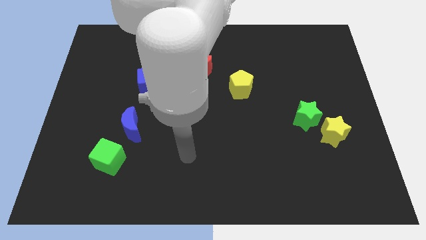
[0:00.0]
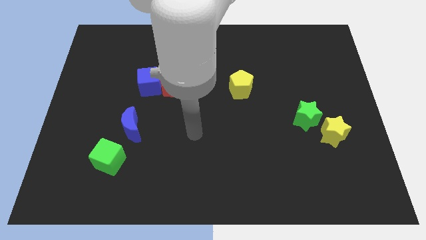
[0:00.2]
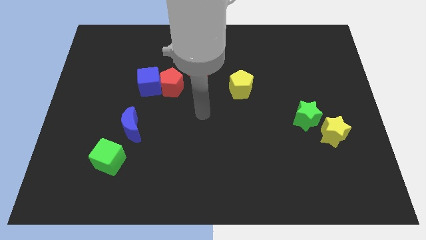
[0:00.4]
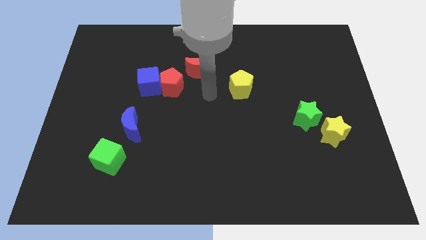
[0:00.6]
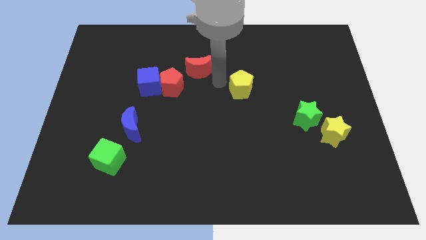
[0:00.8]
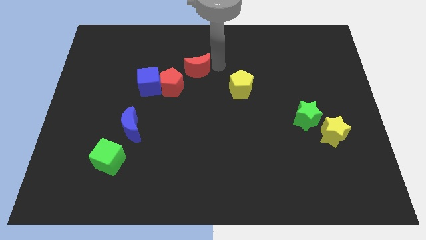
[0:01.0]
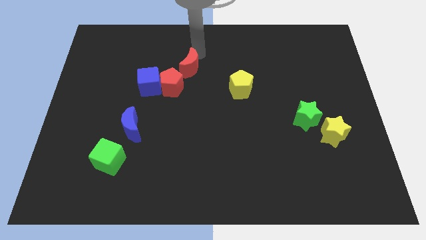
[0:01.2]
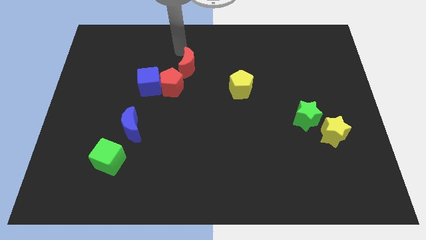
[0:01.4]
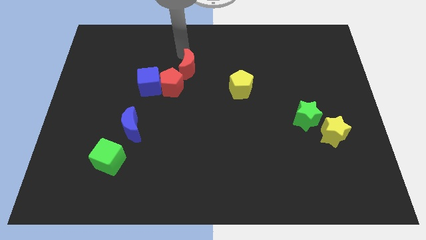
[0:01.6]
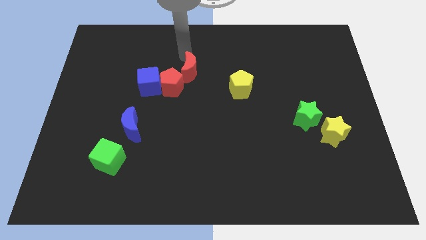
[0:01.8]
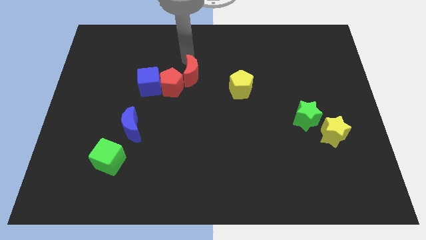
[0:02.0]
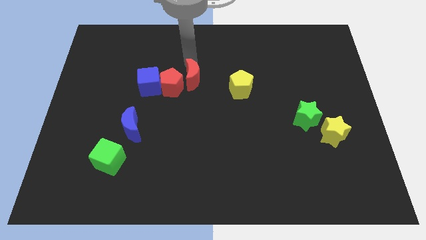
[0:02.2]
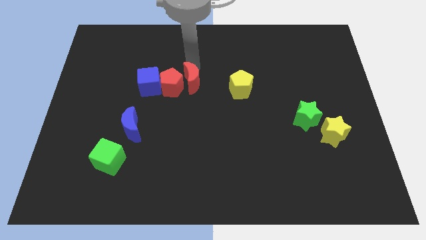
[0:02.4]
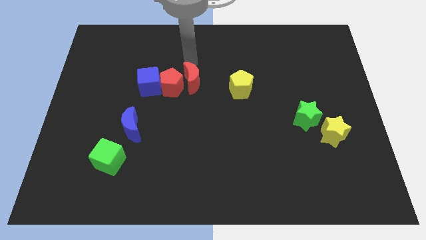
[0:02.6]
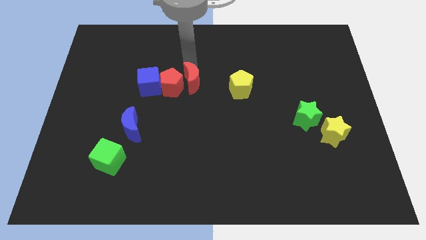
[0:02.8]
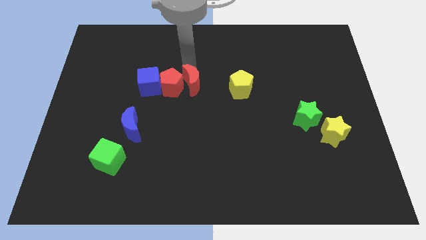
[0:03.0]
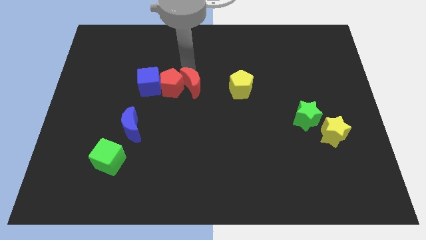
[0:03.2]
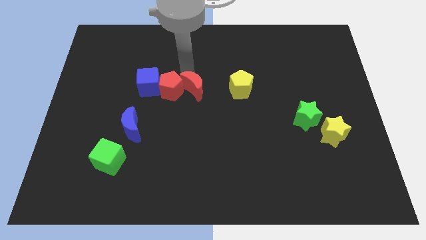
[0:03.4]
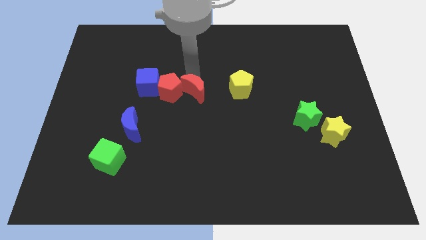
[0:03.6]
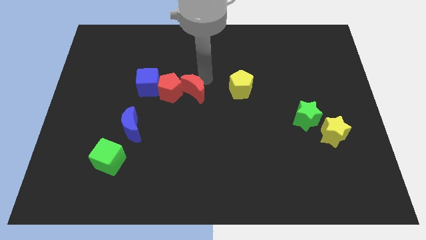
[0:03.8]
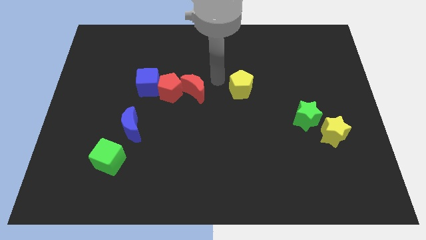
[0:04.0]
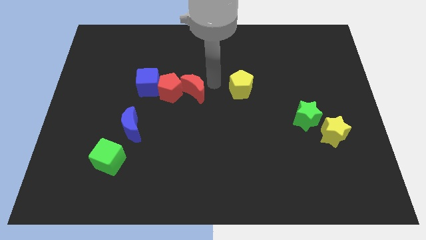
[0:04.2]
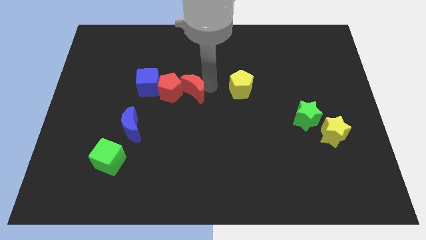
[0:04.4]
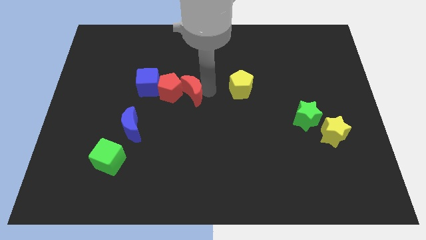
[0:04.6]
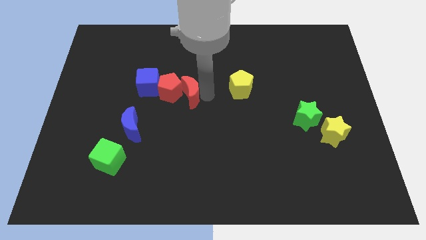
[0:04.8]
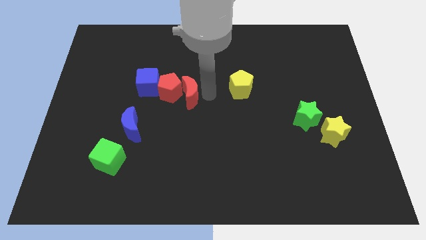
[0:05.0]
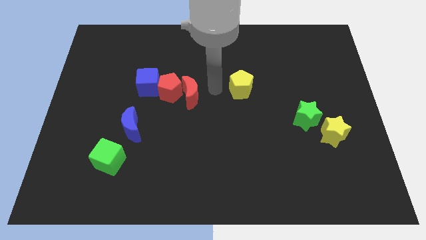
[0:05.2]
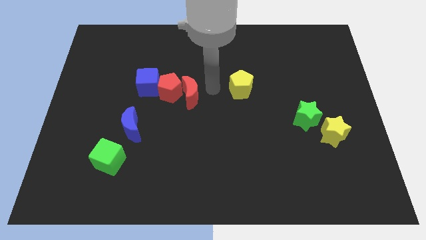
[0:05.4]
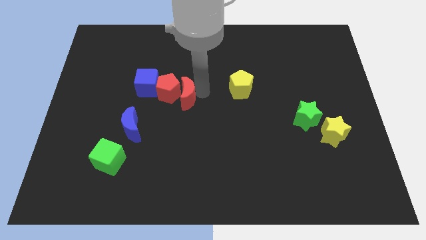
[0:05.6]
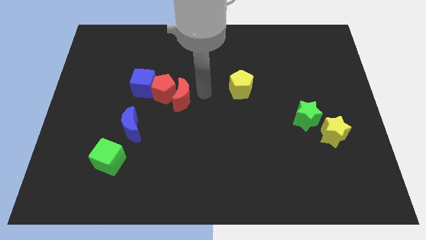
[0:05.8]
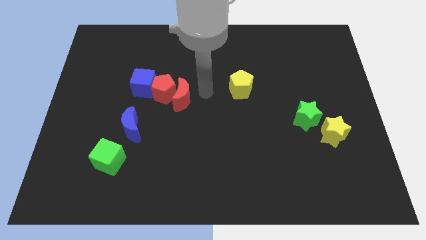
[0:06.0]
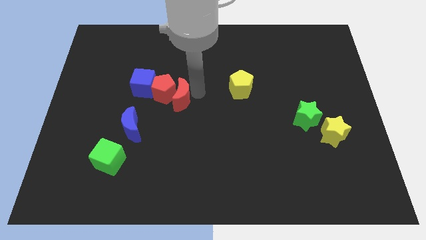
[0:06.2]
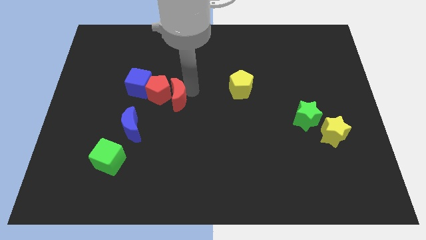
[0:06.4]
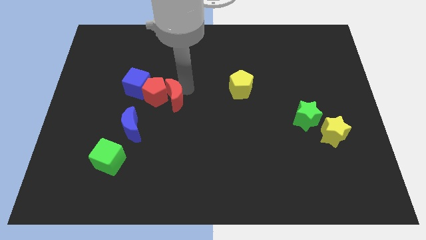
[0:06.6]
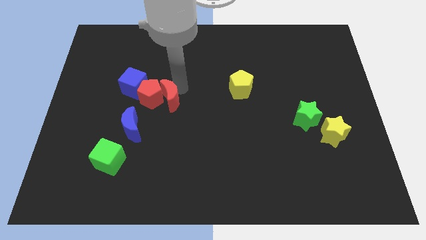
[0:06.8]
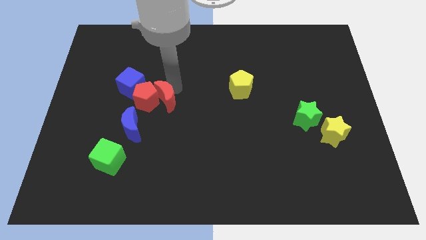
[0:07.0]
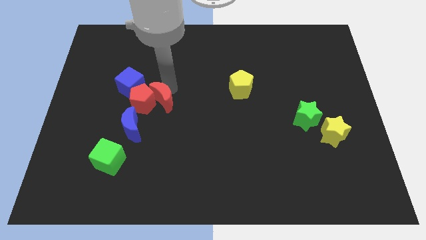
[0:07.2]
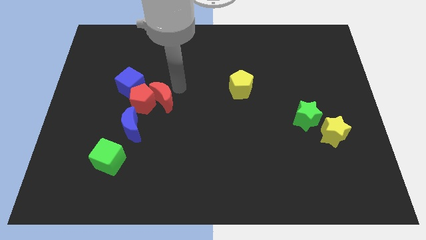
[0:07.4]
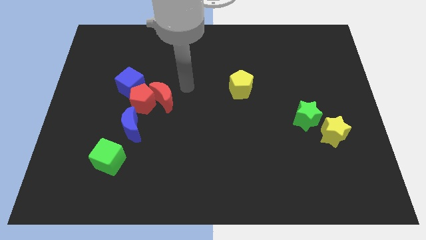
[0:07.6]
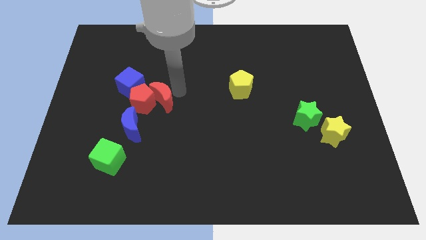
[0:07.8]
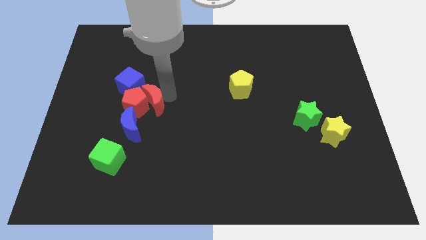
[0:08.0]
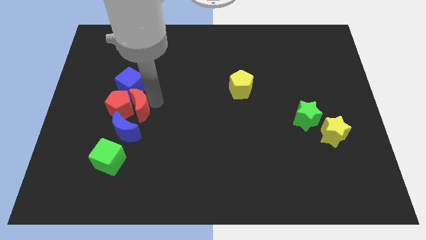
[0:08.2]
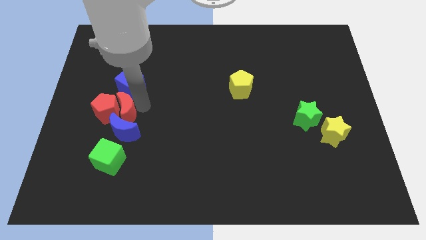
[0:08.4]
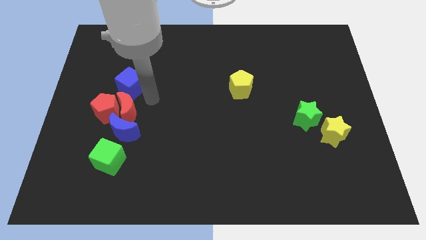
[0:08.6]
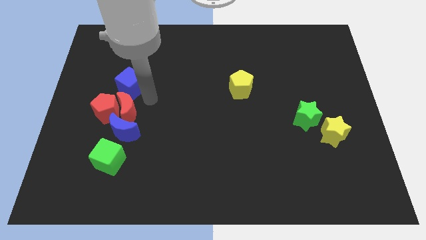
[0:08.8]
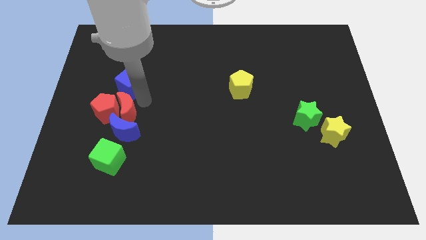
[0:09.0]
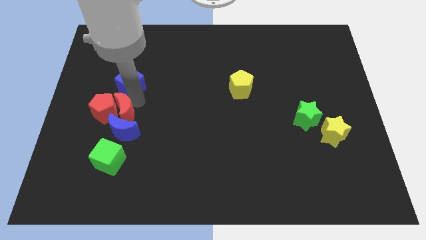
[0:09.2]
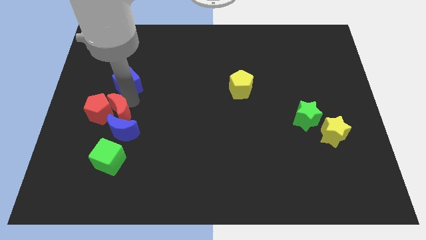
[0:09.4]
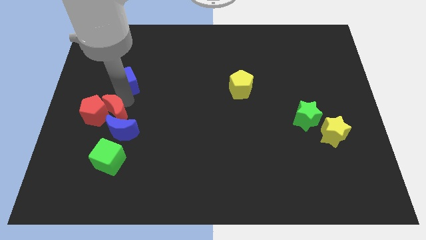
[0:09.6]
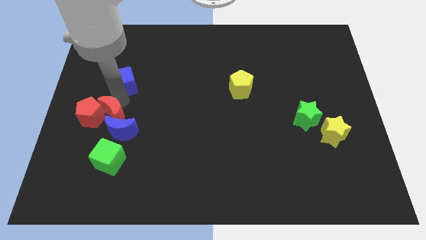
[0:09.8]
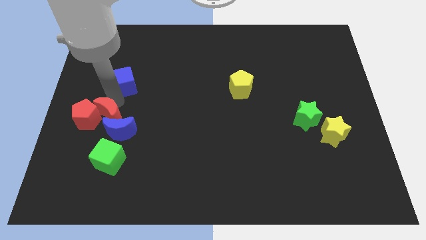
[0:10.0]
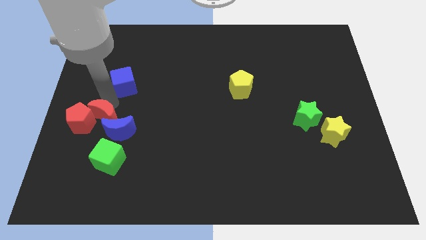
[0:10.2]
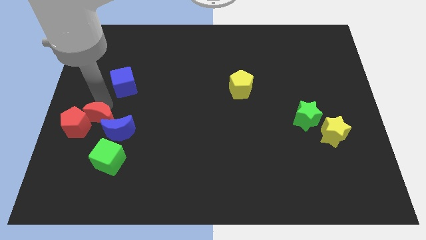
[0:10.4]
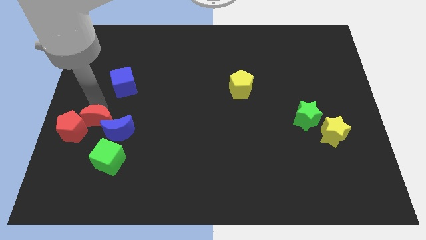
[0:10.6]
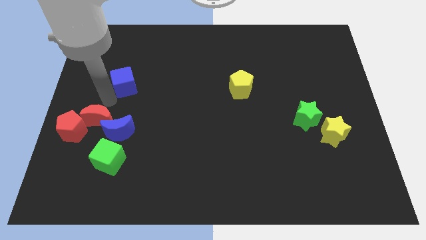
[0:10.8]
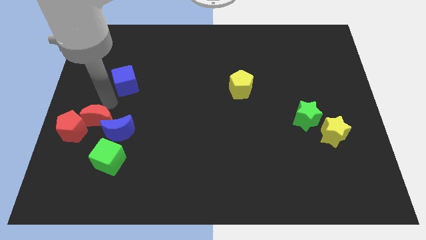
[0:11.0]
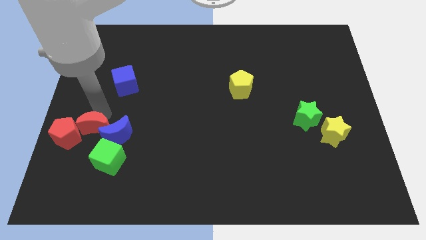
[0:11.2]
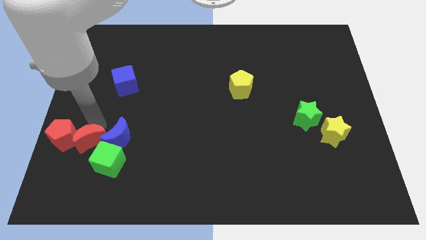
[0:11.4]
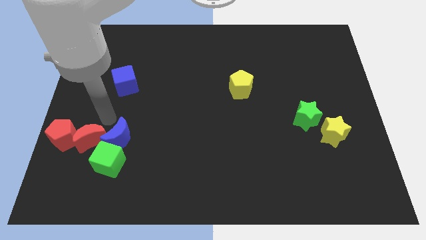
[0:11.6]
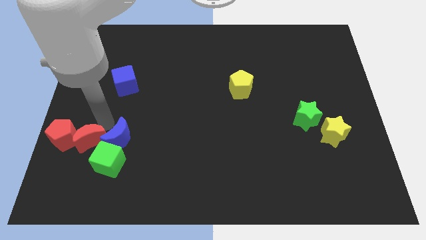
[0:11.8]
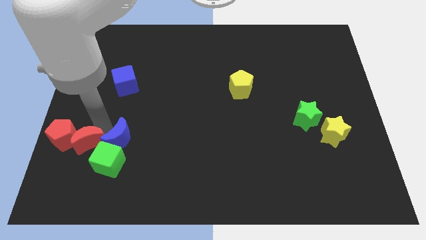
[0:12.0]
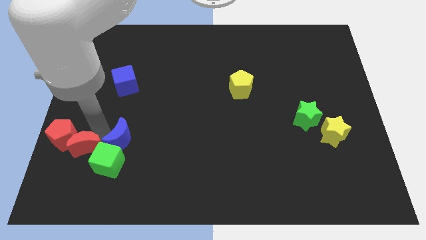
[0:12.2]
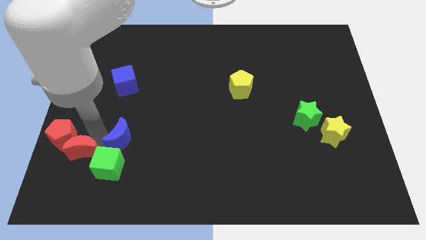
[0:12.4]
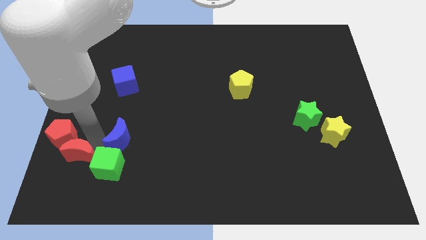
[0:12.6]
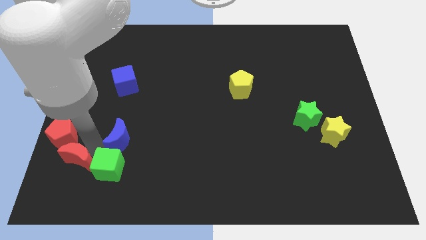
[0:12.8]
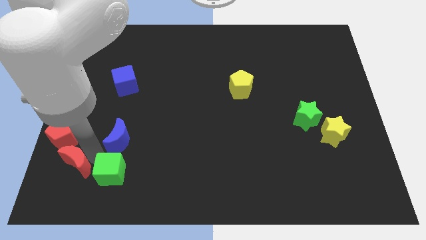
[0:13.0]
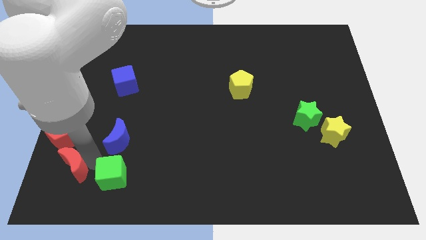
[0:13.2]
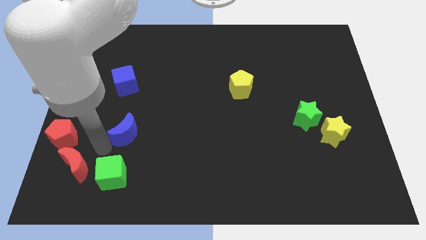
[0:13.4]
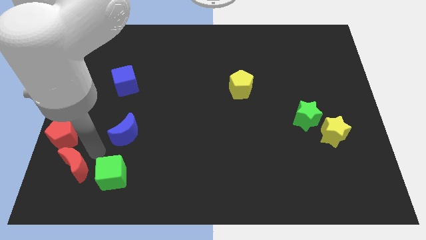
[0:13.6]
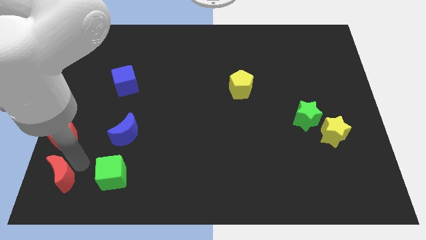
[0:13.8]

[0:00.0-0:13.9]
slide the red moon to the bottom left corner

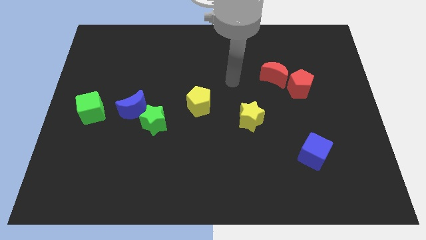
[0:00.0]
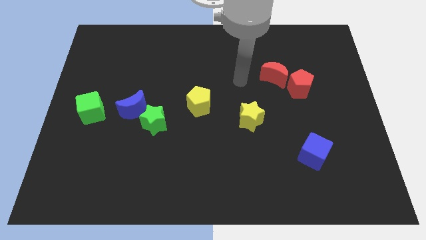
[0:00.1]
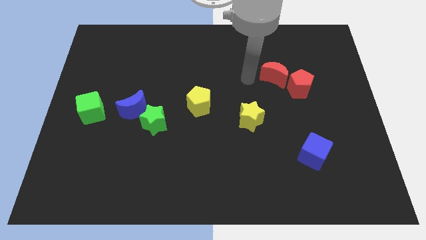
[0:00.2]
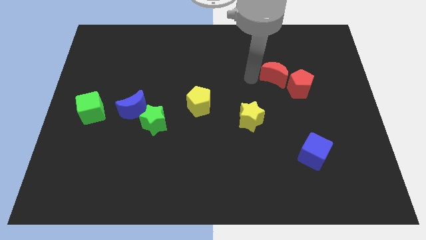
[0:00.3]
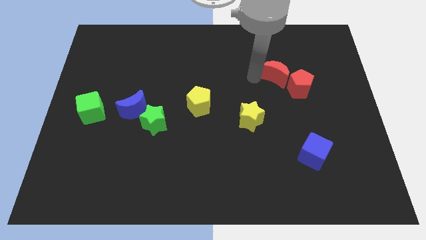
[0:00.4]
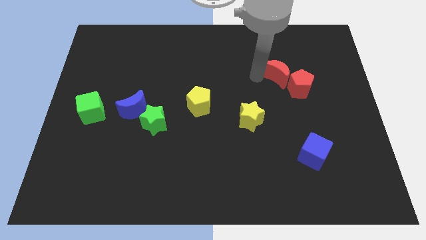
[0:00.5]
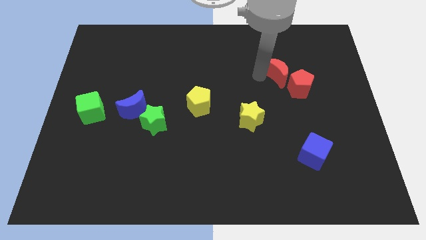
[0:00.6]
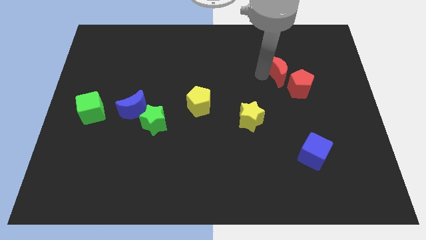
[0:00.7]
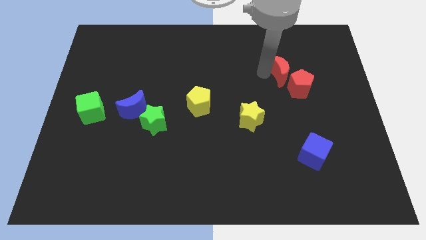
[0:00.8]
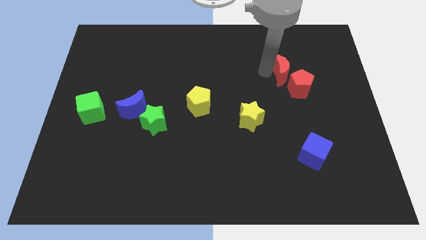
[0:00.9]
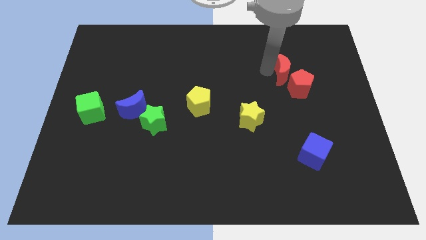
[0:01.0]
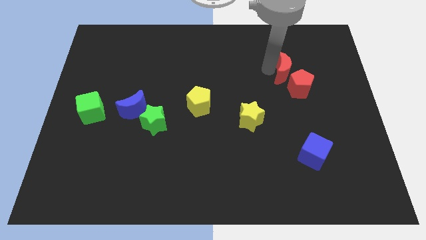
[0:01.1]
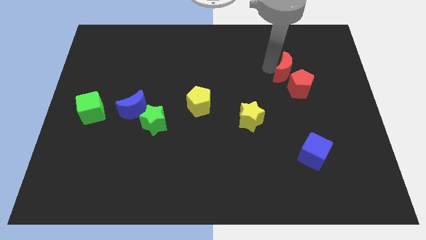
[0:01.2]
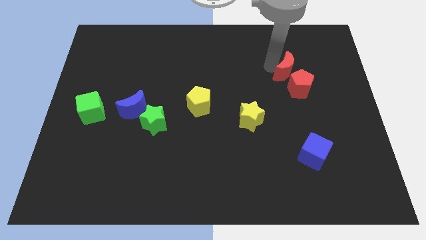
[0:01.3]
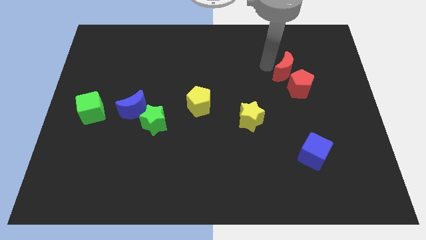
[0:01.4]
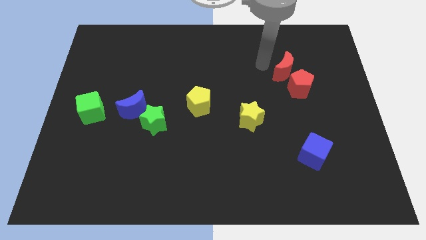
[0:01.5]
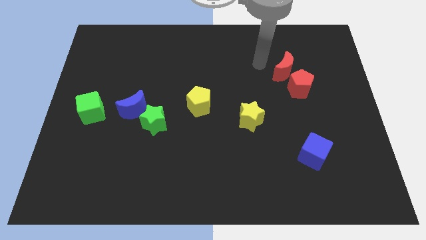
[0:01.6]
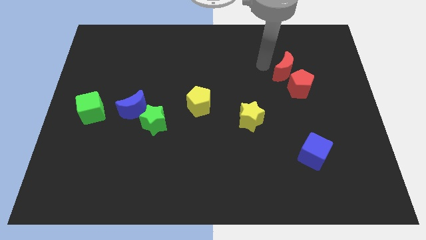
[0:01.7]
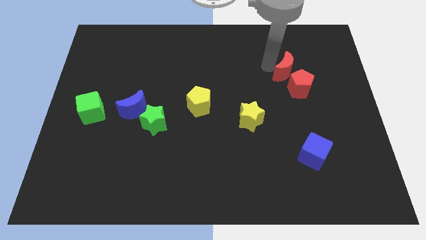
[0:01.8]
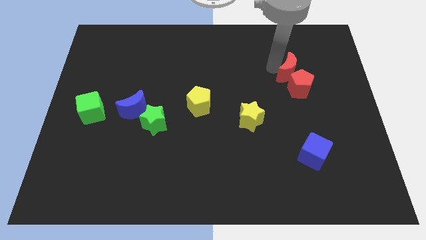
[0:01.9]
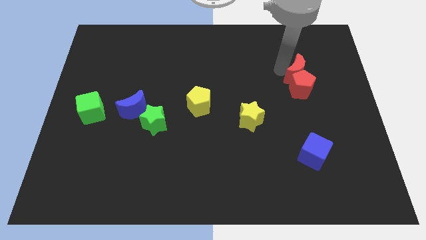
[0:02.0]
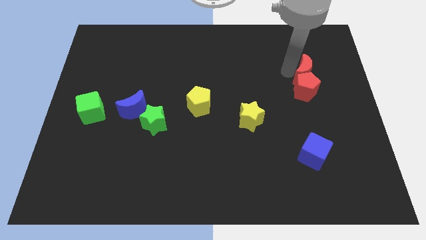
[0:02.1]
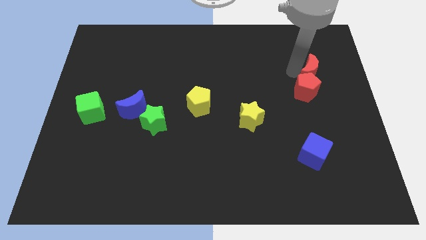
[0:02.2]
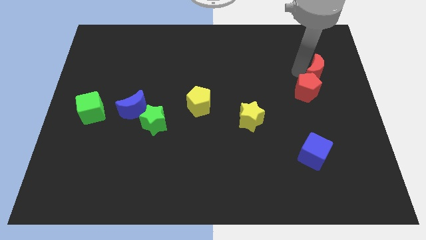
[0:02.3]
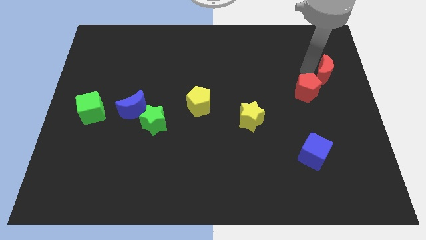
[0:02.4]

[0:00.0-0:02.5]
slide the red moon to the right side
